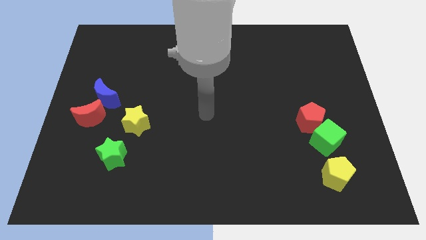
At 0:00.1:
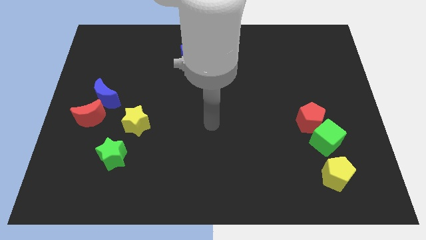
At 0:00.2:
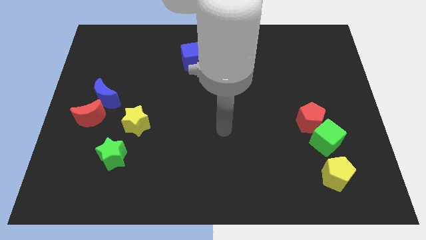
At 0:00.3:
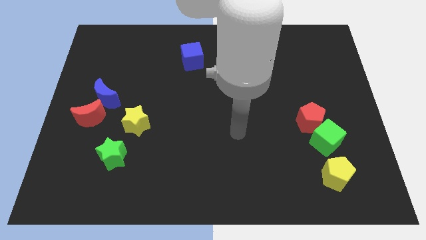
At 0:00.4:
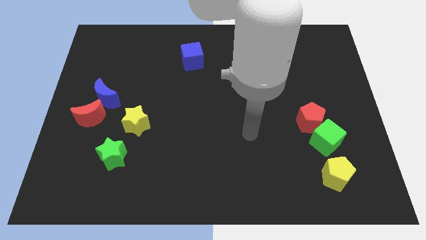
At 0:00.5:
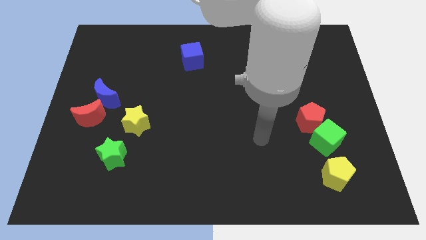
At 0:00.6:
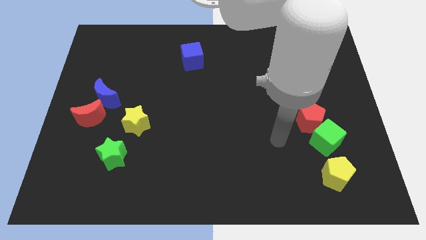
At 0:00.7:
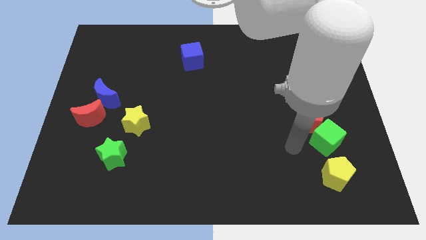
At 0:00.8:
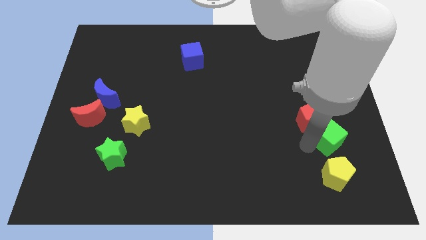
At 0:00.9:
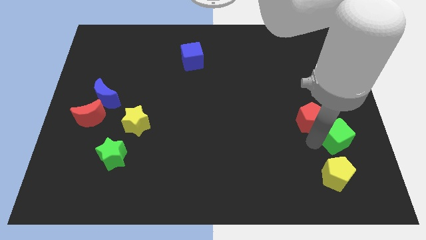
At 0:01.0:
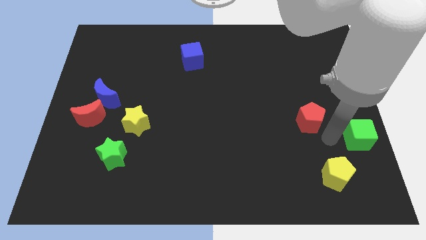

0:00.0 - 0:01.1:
pull the red pentagon apart from the green cube

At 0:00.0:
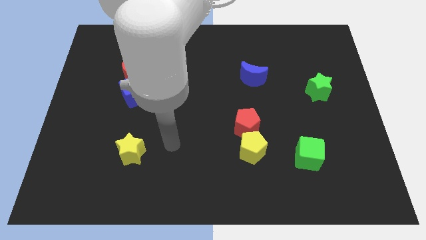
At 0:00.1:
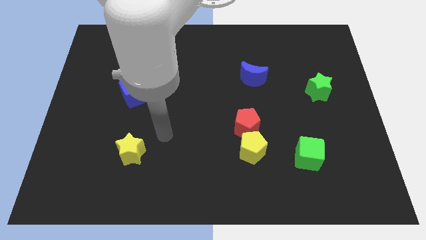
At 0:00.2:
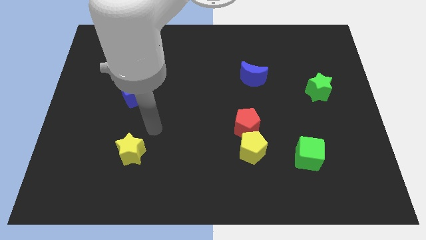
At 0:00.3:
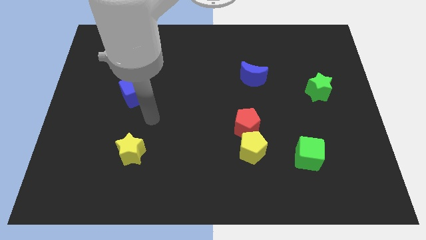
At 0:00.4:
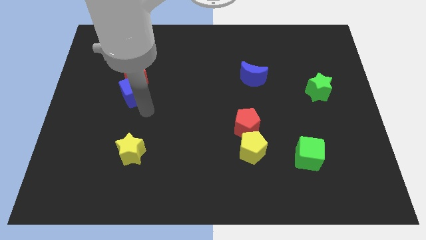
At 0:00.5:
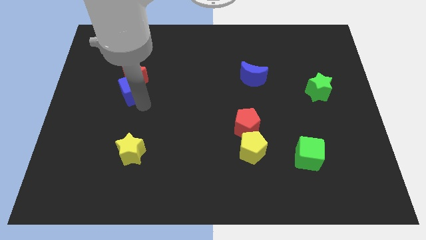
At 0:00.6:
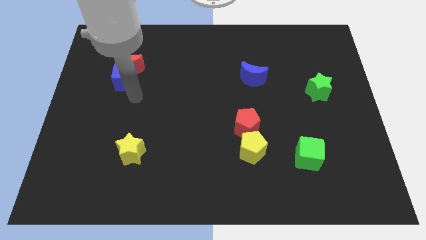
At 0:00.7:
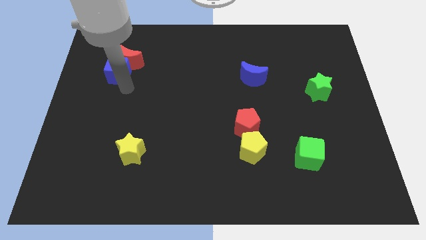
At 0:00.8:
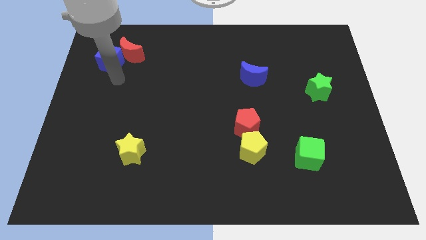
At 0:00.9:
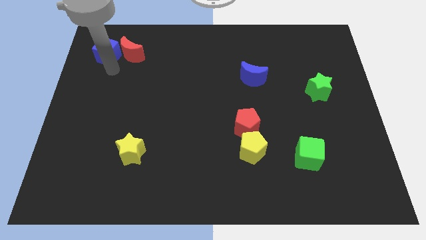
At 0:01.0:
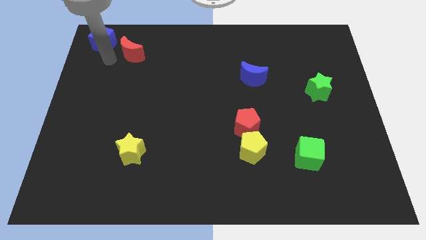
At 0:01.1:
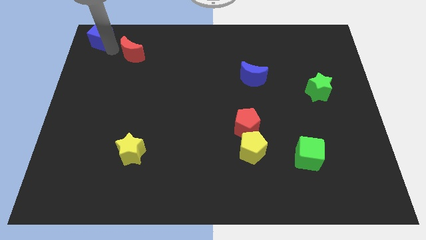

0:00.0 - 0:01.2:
separate the red moon from the blue cube

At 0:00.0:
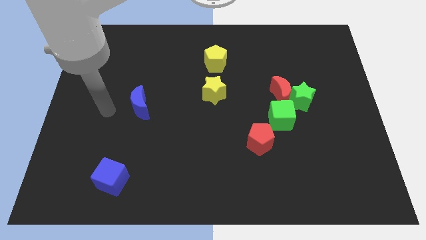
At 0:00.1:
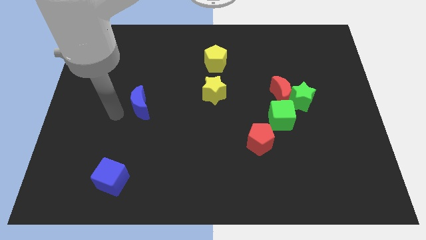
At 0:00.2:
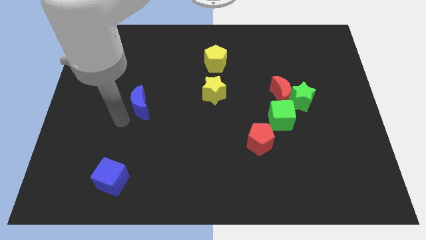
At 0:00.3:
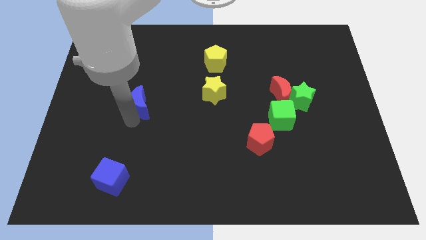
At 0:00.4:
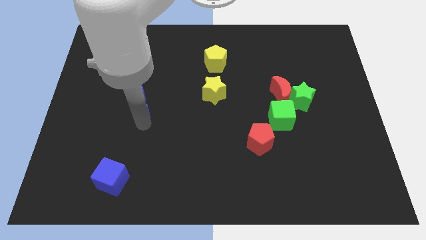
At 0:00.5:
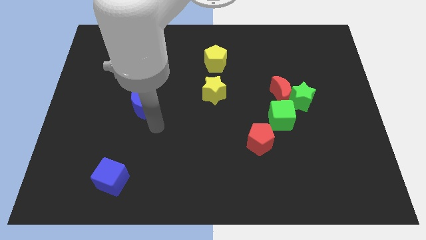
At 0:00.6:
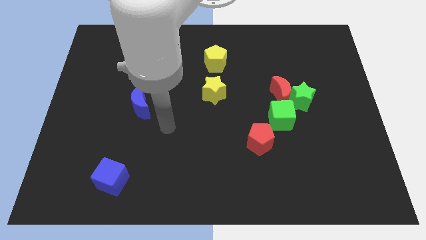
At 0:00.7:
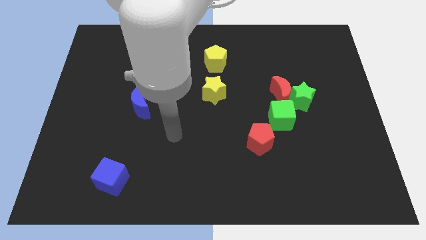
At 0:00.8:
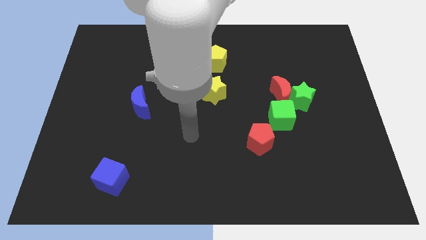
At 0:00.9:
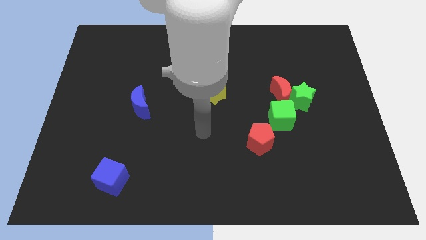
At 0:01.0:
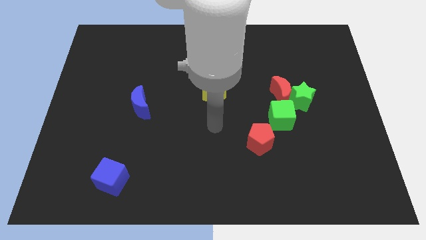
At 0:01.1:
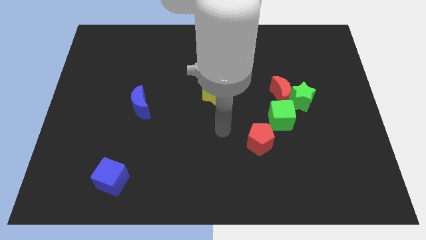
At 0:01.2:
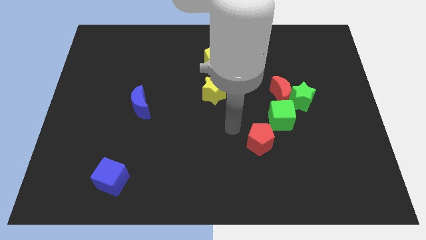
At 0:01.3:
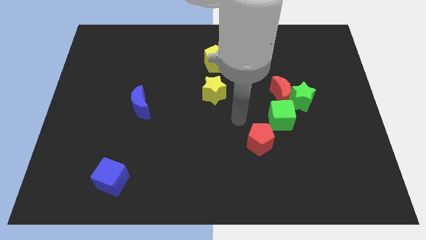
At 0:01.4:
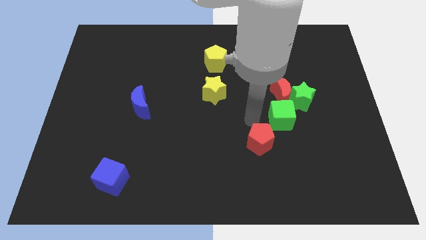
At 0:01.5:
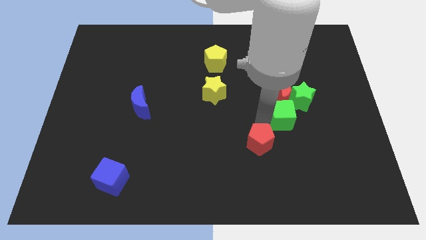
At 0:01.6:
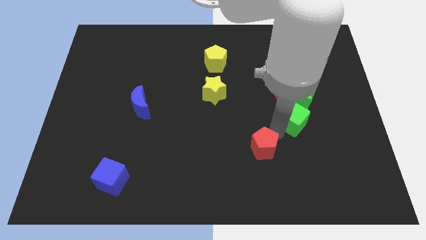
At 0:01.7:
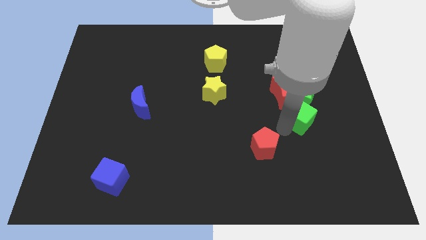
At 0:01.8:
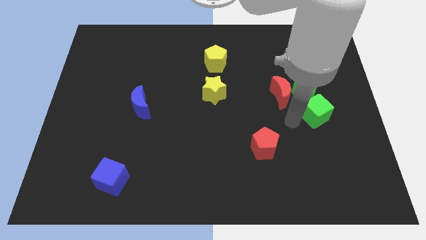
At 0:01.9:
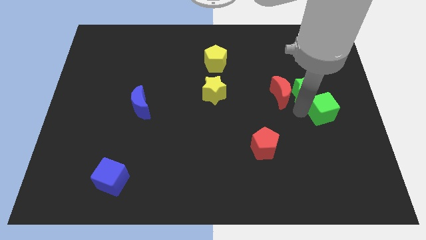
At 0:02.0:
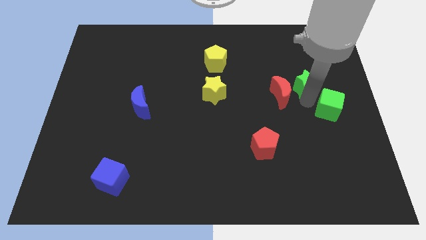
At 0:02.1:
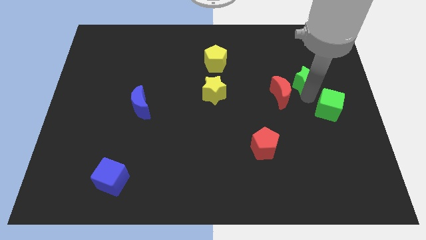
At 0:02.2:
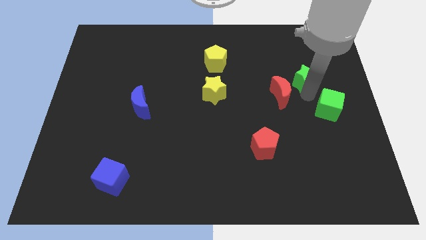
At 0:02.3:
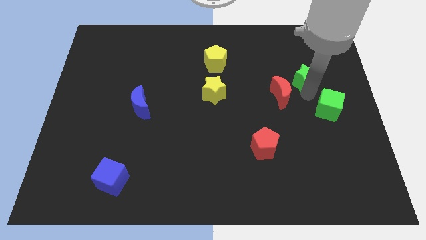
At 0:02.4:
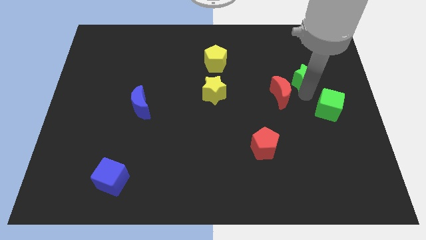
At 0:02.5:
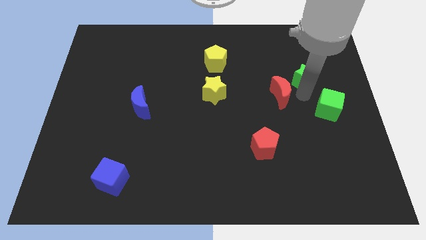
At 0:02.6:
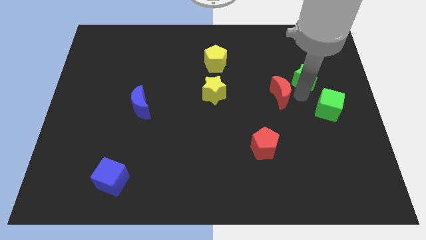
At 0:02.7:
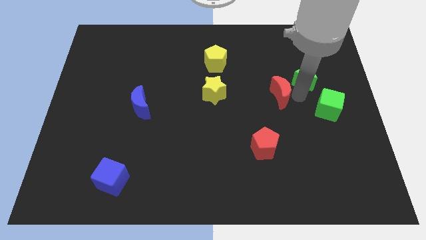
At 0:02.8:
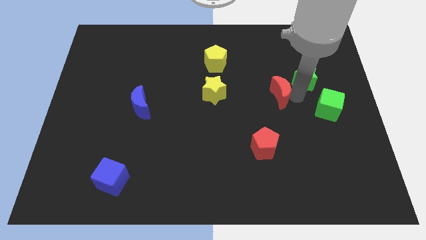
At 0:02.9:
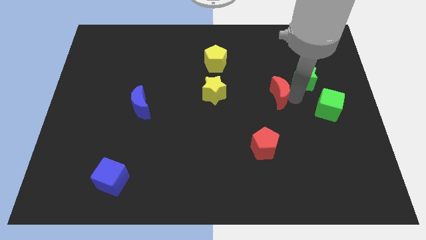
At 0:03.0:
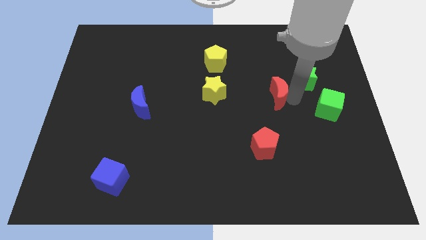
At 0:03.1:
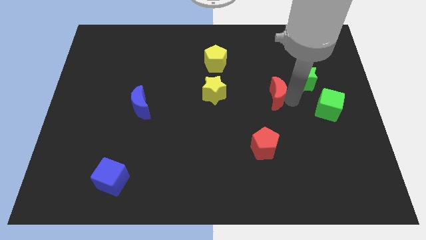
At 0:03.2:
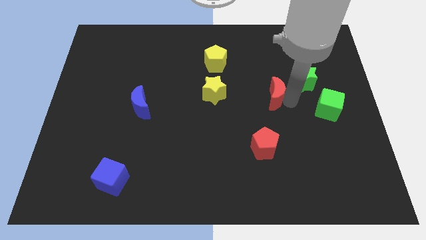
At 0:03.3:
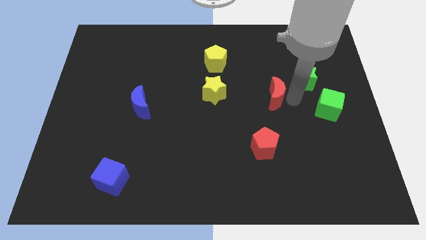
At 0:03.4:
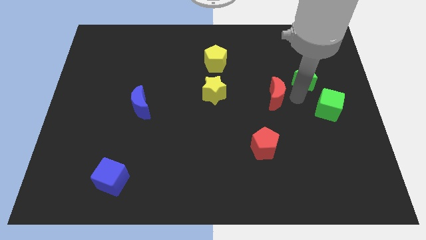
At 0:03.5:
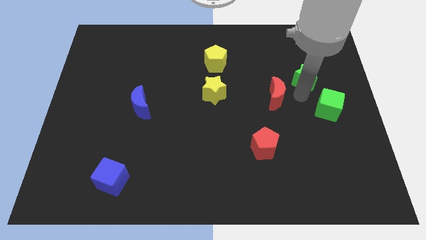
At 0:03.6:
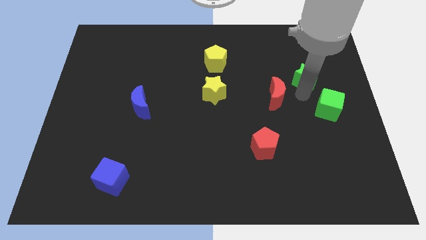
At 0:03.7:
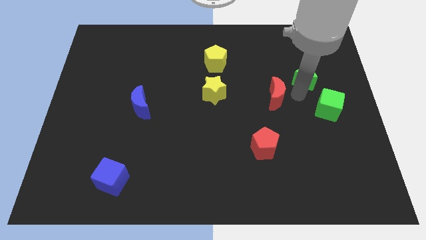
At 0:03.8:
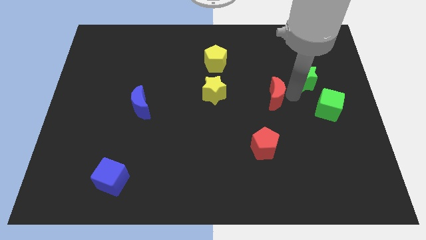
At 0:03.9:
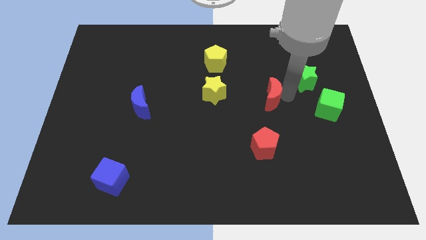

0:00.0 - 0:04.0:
separate the red moon from the green star and green cube

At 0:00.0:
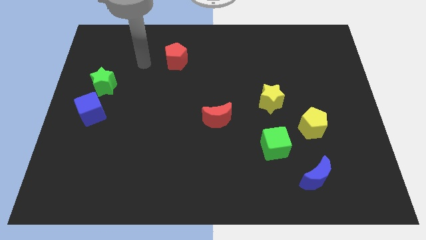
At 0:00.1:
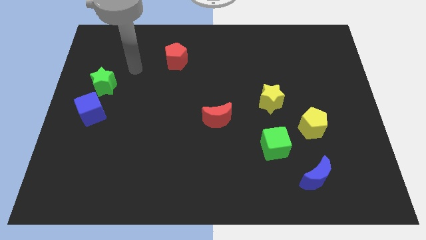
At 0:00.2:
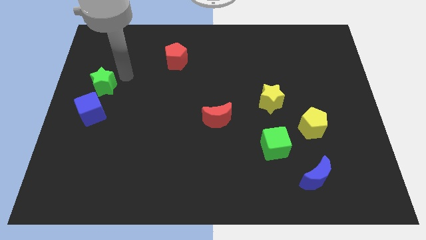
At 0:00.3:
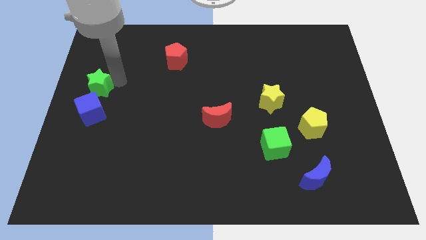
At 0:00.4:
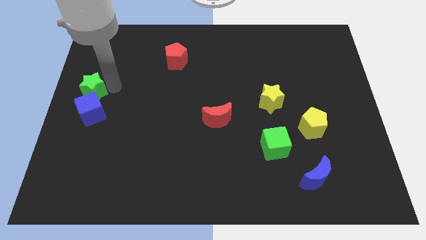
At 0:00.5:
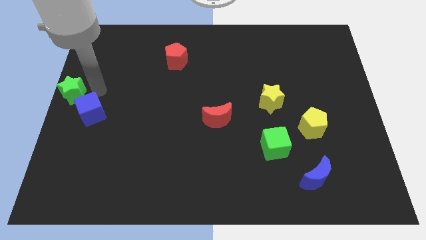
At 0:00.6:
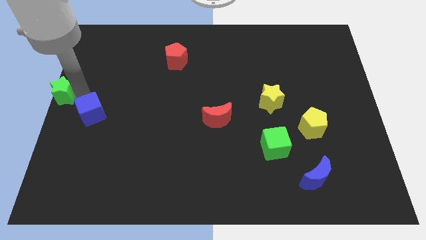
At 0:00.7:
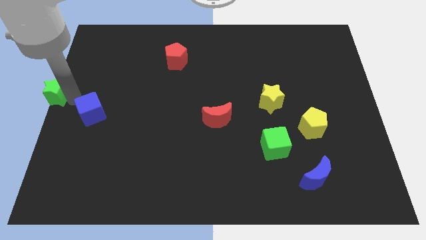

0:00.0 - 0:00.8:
move the blue cube away from the green star

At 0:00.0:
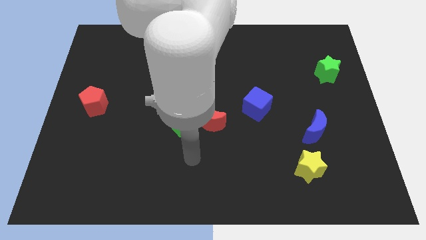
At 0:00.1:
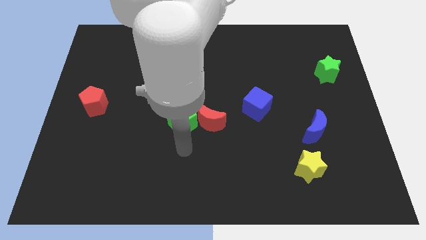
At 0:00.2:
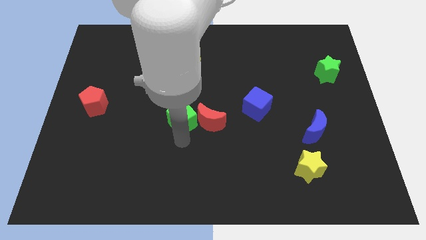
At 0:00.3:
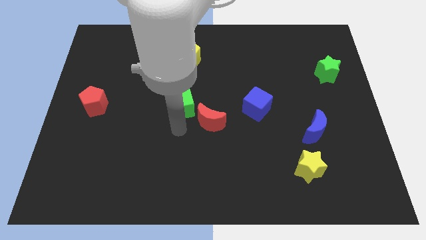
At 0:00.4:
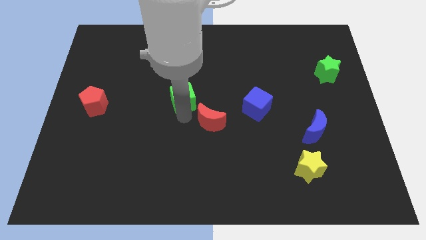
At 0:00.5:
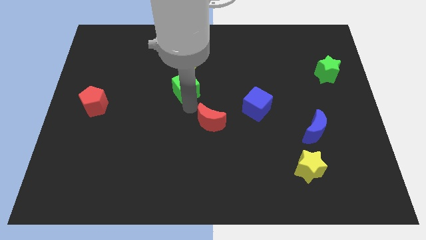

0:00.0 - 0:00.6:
separate the red moon from the green cube

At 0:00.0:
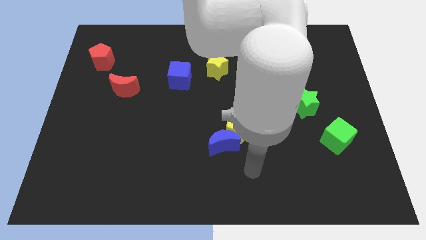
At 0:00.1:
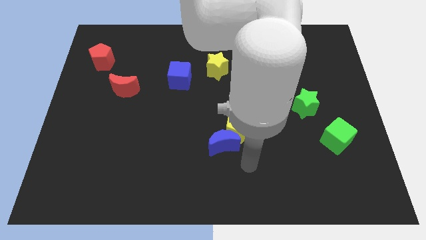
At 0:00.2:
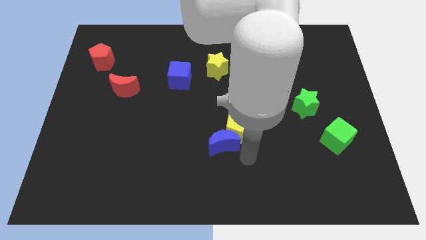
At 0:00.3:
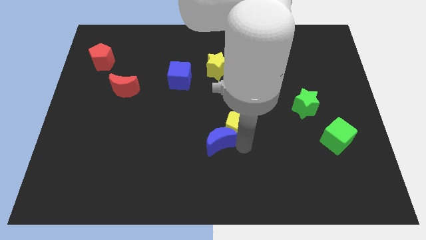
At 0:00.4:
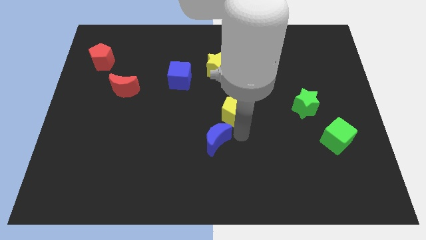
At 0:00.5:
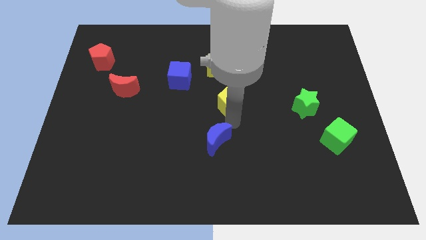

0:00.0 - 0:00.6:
pull the blue moon apart from the yellow pentagon

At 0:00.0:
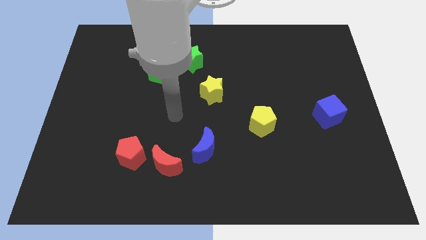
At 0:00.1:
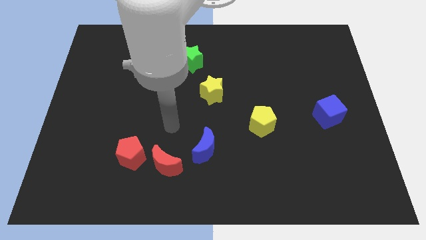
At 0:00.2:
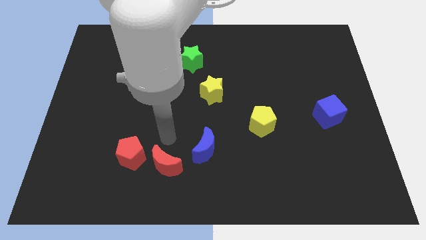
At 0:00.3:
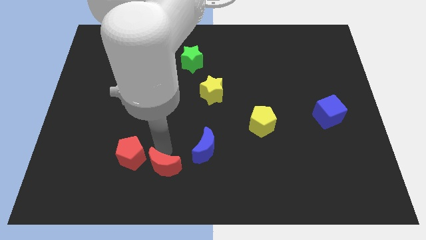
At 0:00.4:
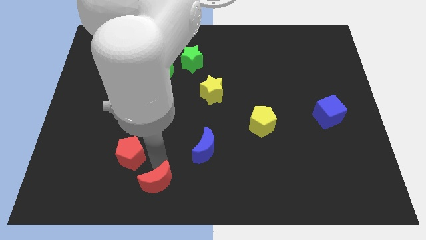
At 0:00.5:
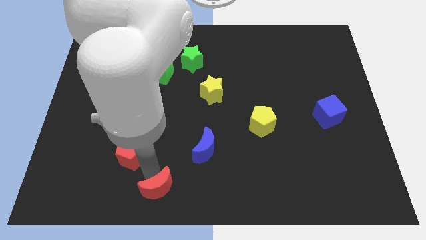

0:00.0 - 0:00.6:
pull the red pentagon apart from the red moon

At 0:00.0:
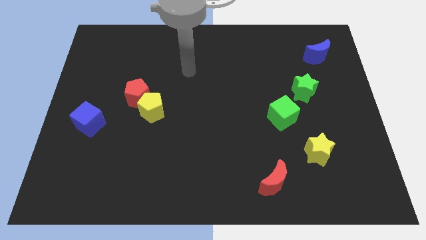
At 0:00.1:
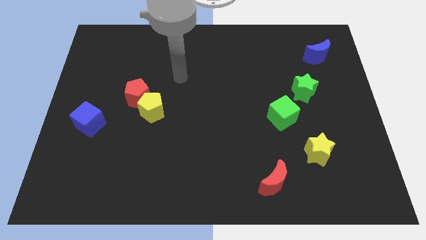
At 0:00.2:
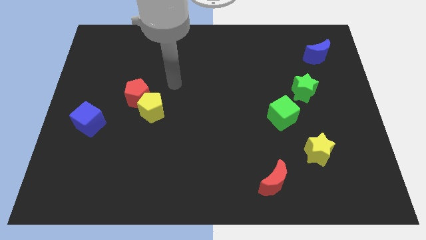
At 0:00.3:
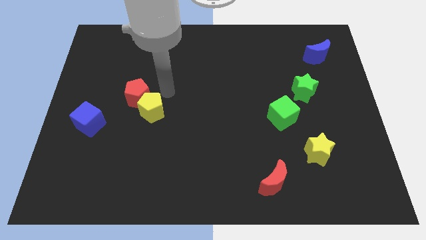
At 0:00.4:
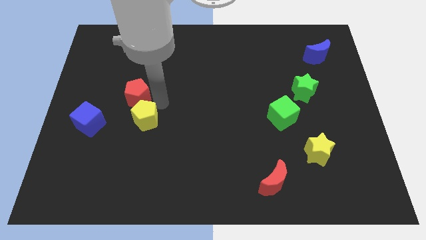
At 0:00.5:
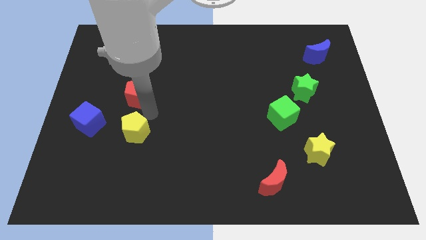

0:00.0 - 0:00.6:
pull the red pentagon apart from the yellow pentagon
